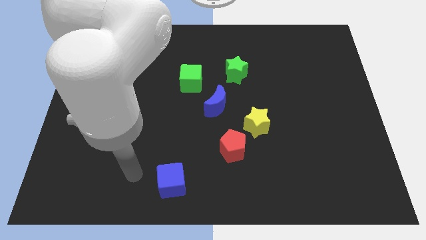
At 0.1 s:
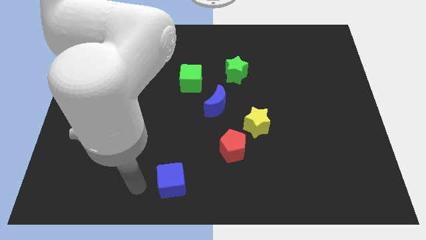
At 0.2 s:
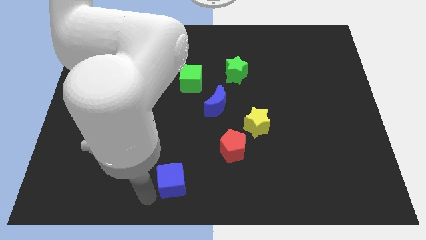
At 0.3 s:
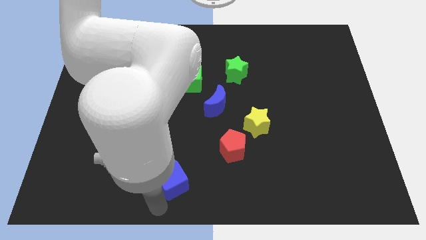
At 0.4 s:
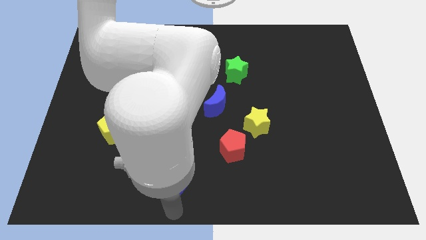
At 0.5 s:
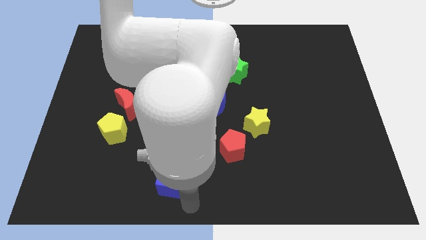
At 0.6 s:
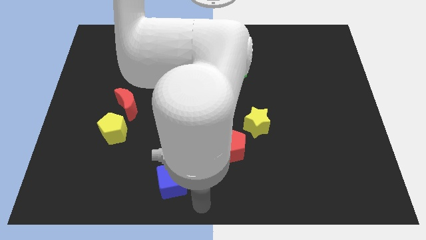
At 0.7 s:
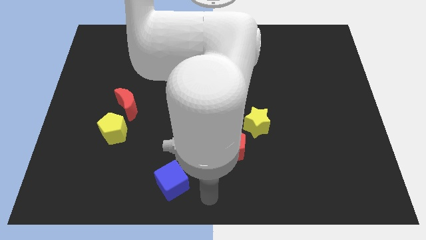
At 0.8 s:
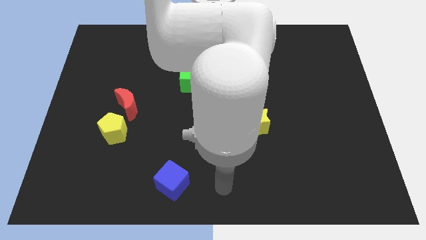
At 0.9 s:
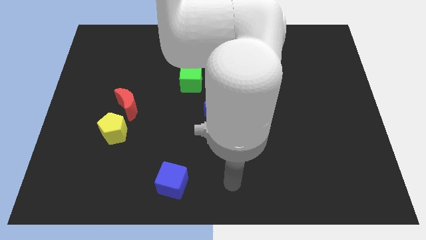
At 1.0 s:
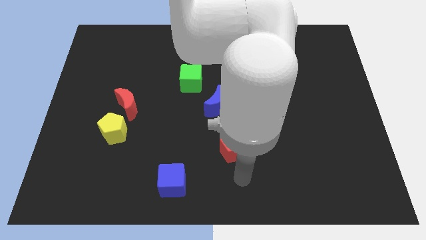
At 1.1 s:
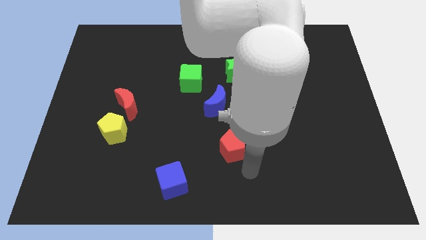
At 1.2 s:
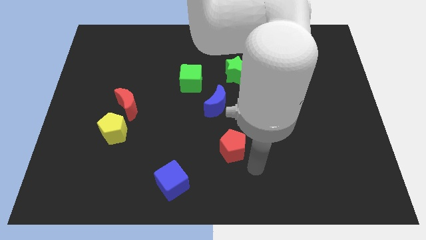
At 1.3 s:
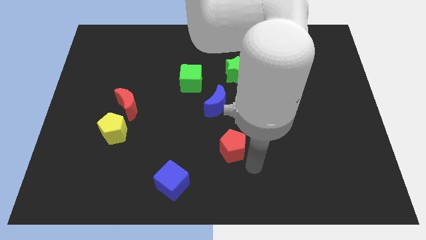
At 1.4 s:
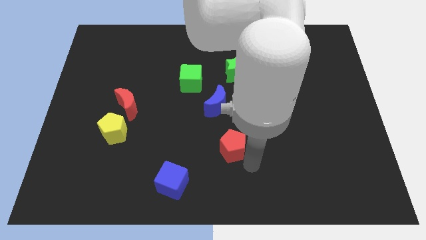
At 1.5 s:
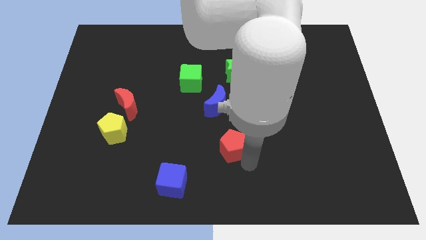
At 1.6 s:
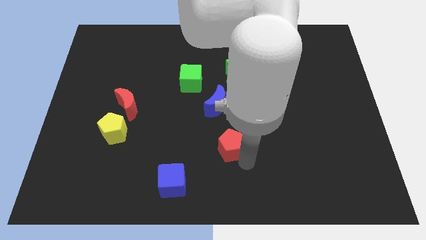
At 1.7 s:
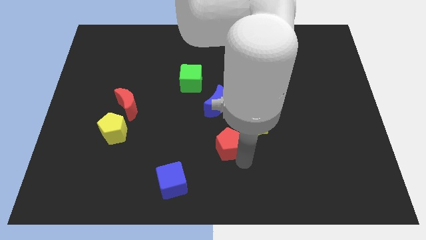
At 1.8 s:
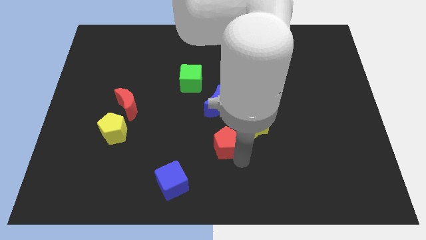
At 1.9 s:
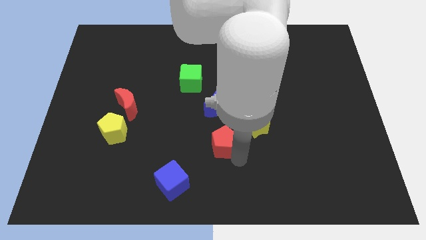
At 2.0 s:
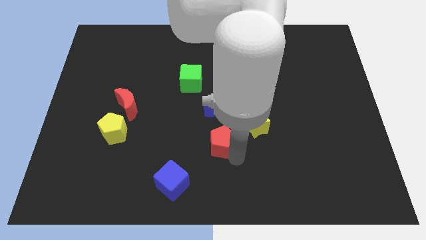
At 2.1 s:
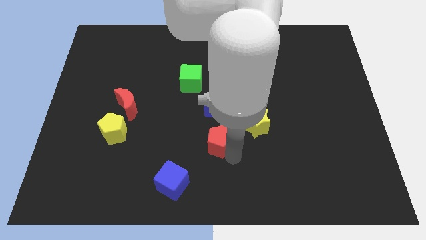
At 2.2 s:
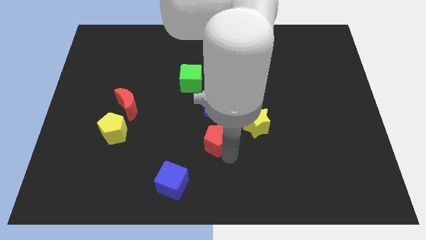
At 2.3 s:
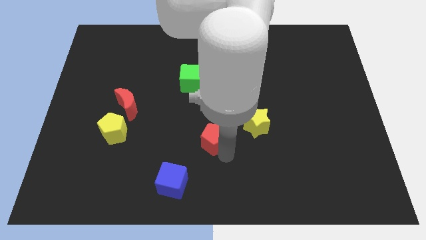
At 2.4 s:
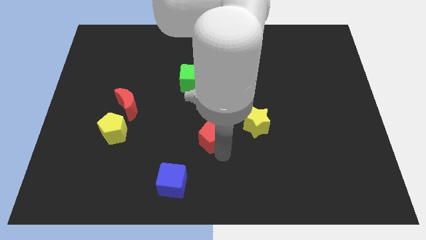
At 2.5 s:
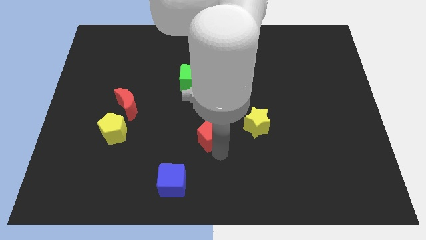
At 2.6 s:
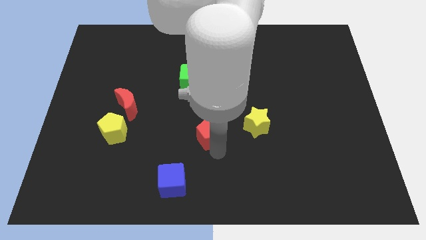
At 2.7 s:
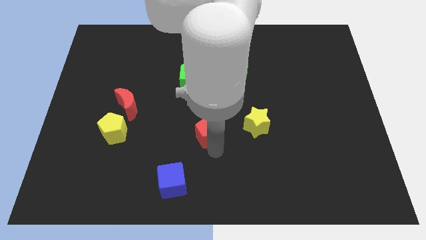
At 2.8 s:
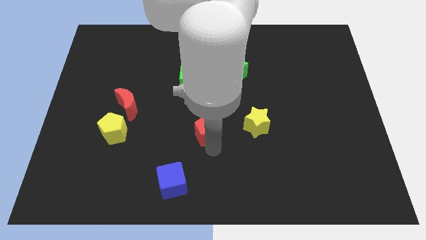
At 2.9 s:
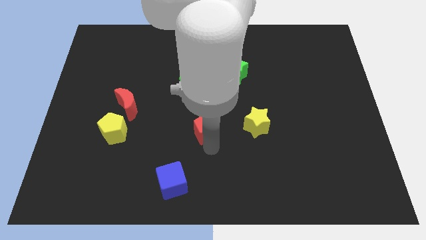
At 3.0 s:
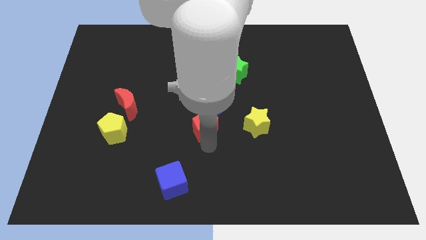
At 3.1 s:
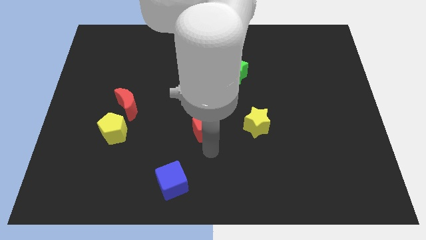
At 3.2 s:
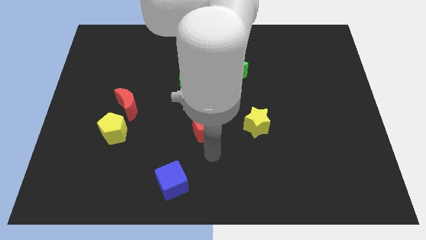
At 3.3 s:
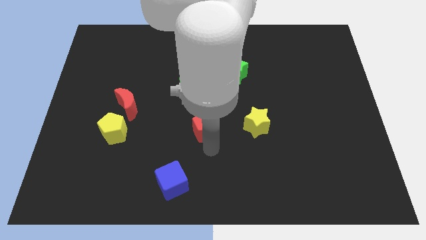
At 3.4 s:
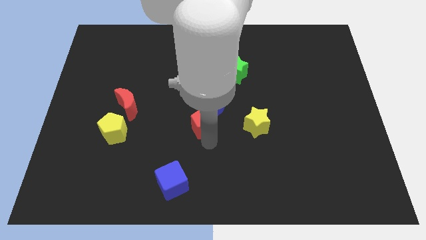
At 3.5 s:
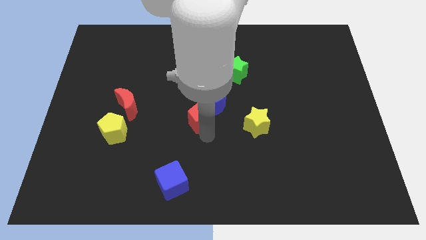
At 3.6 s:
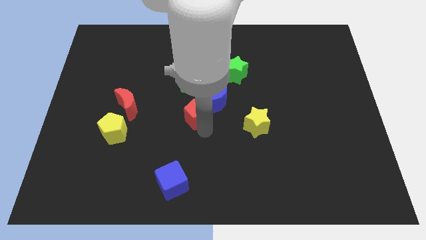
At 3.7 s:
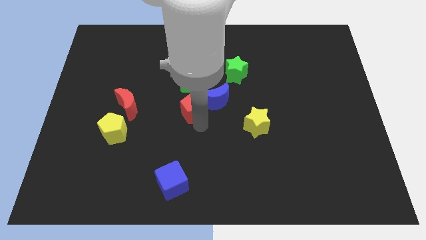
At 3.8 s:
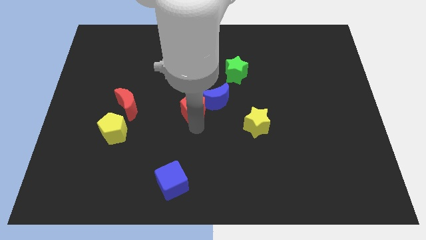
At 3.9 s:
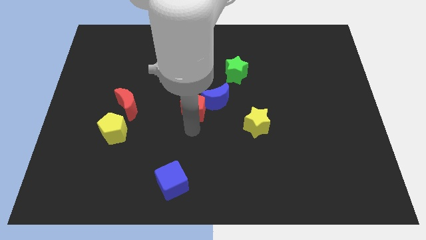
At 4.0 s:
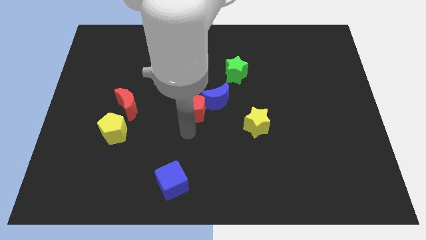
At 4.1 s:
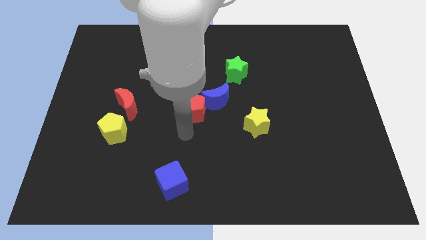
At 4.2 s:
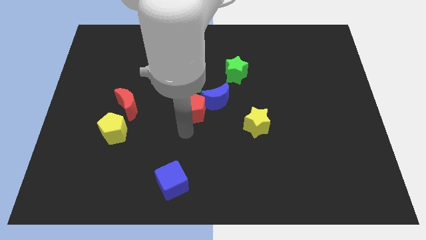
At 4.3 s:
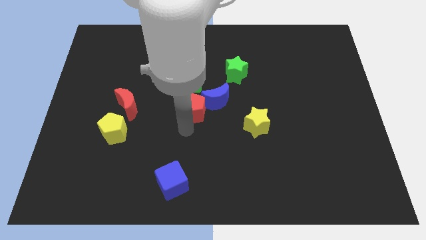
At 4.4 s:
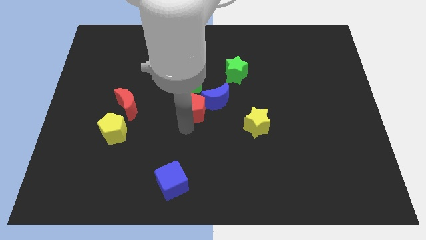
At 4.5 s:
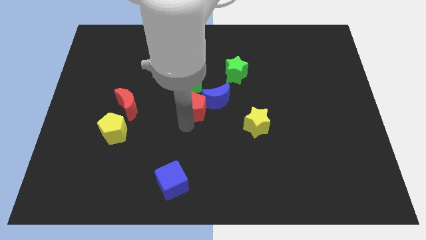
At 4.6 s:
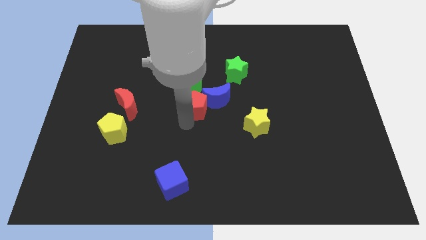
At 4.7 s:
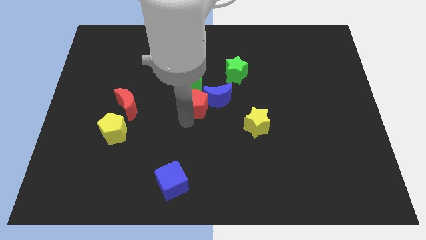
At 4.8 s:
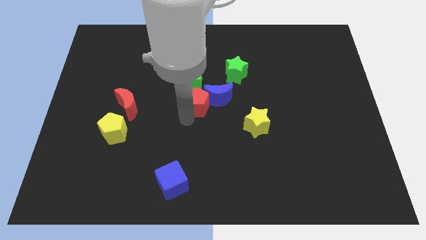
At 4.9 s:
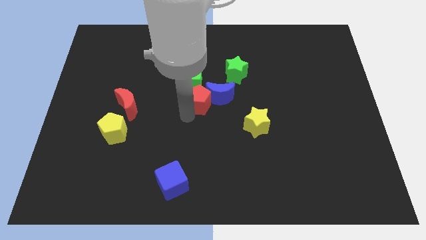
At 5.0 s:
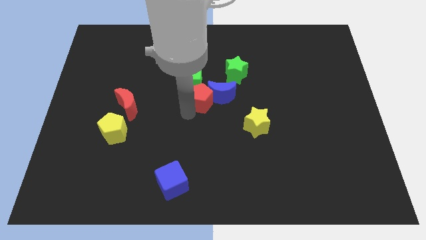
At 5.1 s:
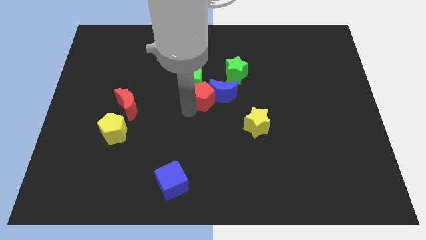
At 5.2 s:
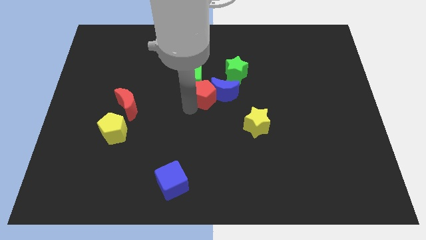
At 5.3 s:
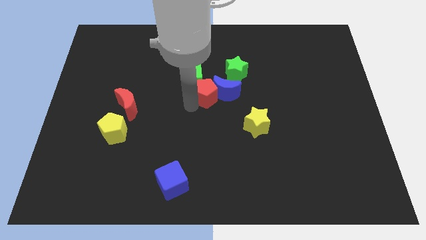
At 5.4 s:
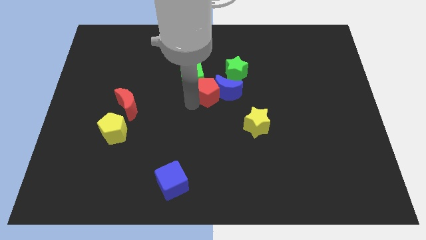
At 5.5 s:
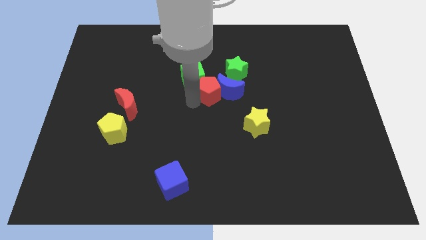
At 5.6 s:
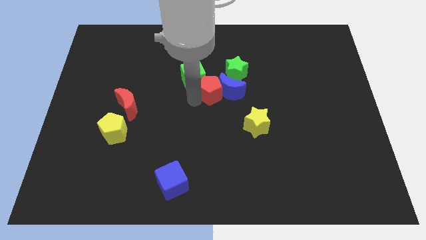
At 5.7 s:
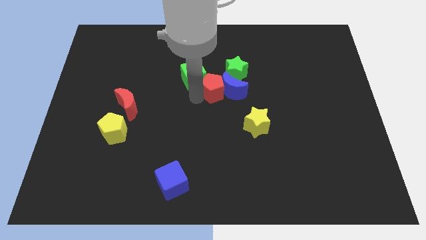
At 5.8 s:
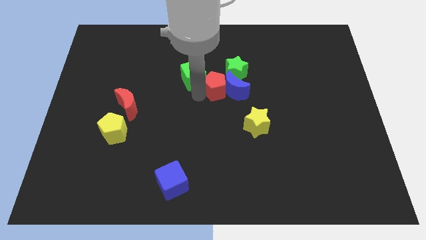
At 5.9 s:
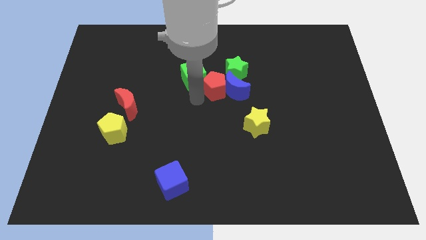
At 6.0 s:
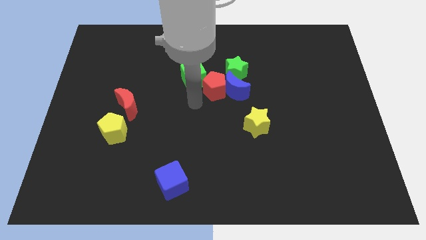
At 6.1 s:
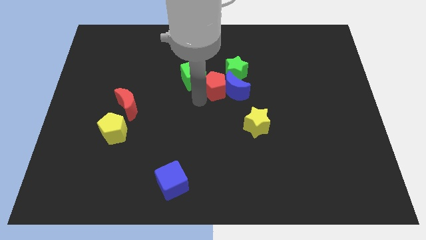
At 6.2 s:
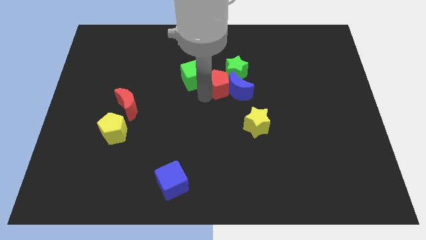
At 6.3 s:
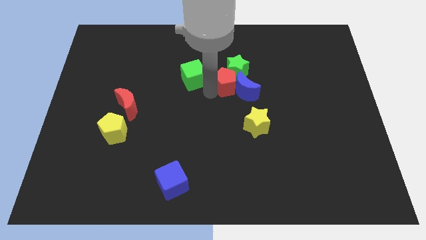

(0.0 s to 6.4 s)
put the red pentagon towards the green star

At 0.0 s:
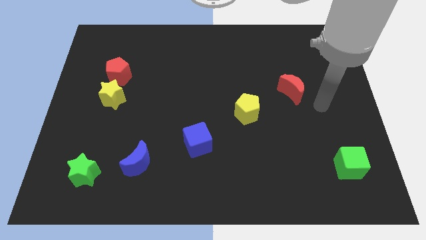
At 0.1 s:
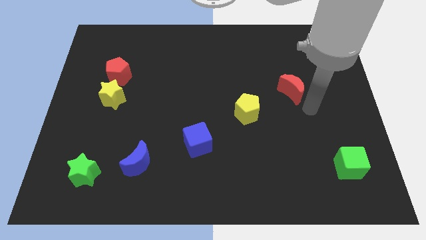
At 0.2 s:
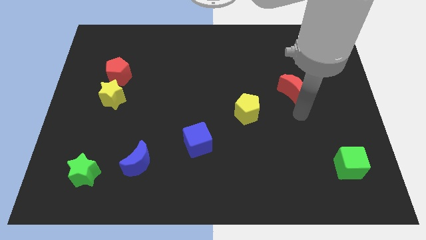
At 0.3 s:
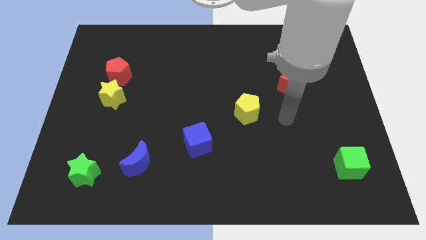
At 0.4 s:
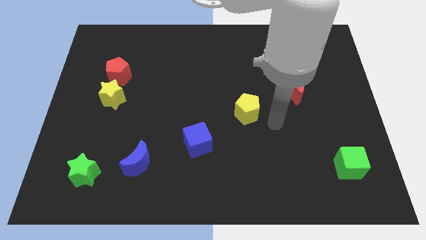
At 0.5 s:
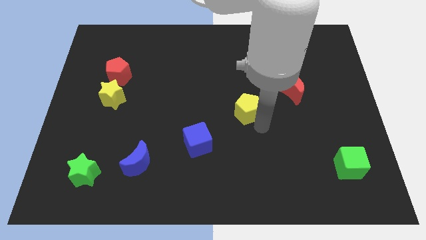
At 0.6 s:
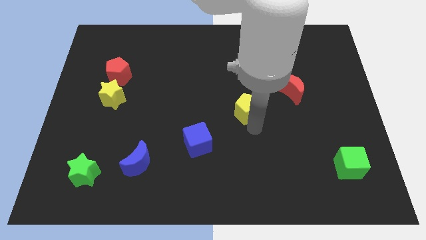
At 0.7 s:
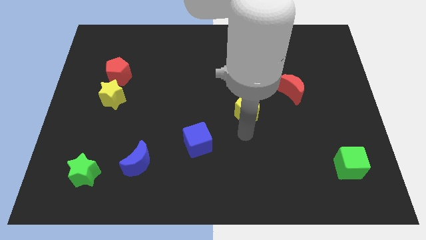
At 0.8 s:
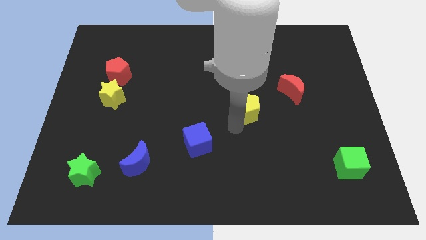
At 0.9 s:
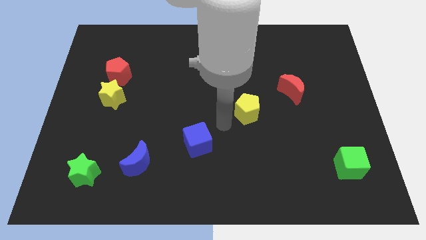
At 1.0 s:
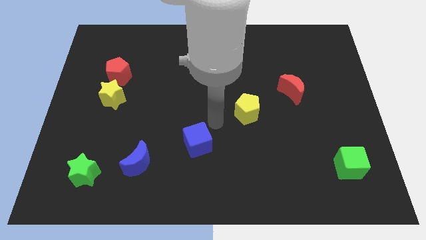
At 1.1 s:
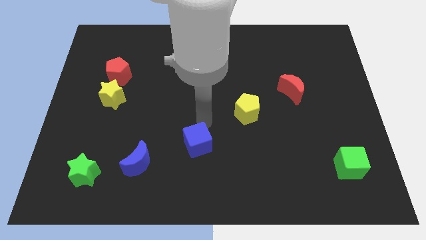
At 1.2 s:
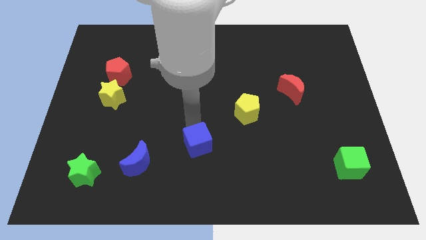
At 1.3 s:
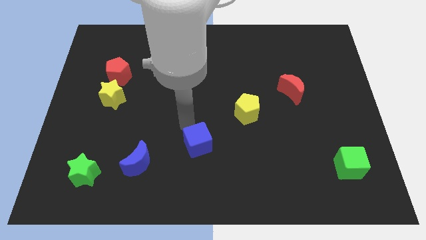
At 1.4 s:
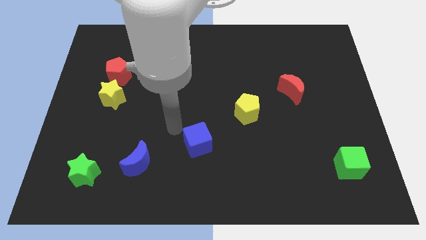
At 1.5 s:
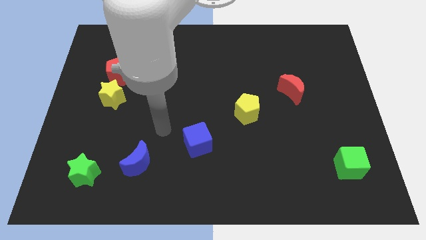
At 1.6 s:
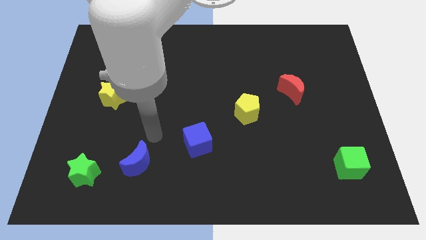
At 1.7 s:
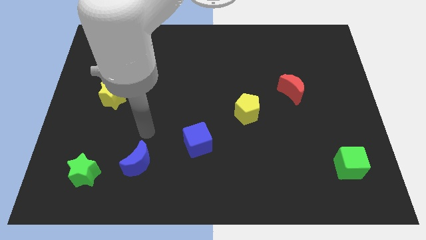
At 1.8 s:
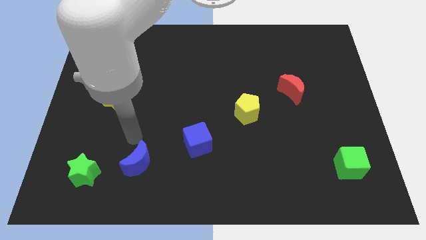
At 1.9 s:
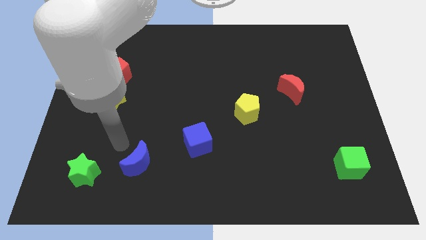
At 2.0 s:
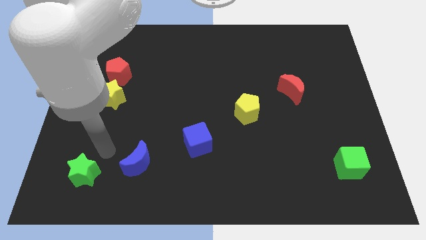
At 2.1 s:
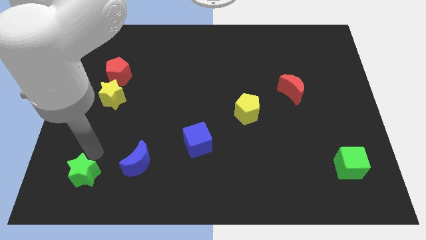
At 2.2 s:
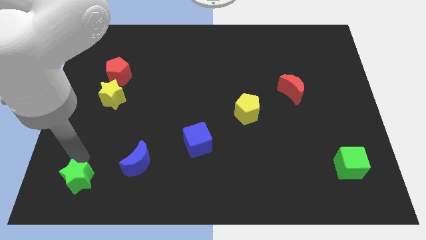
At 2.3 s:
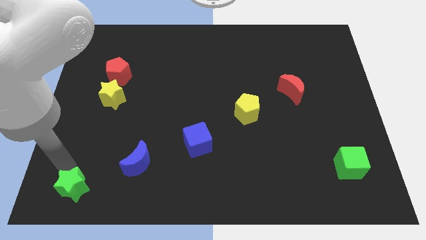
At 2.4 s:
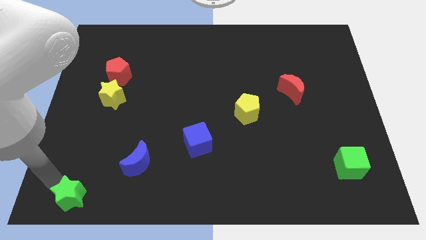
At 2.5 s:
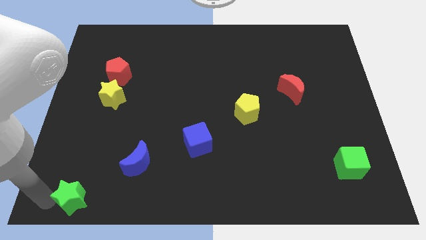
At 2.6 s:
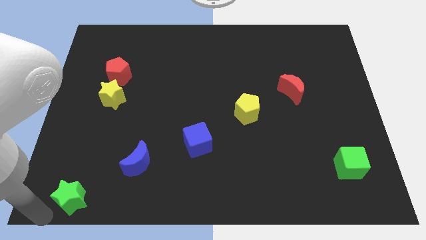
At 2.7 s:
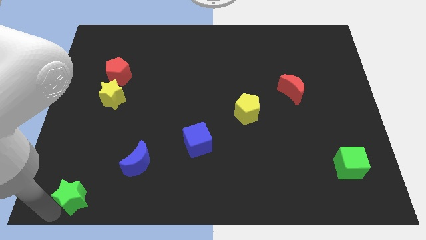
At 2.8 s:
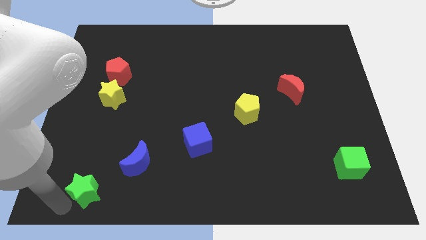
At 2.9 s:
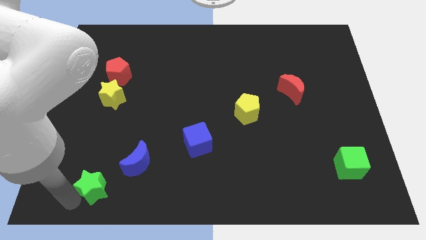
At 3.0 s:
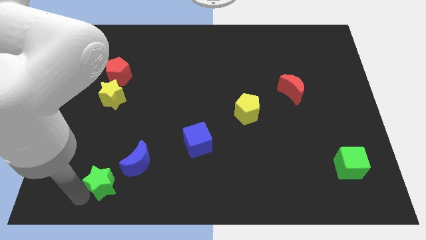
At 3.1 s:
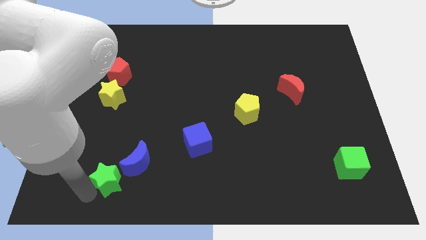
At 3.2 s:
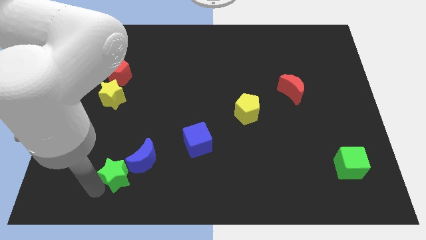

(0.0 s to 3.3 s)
push the green star towards the blue moon
